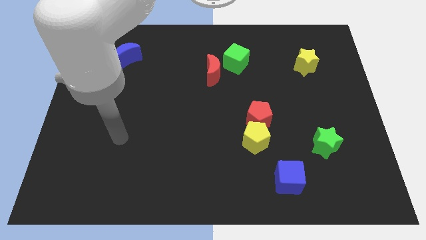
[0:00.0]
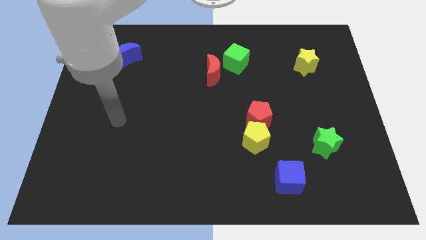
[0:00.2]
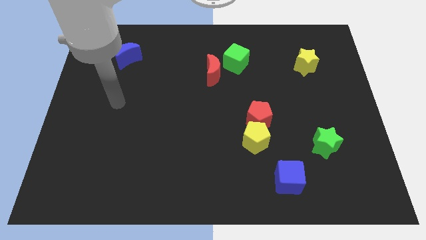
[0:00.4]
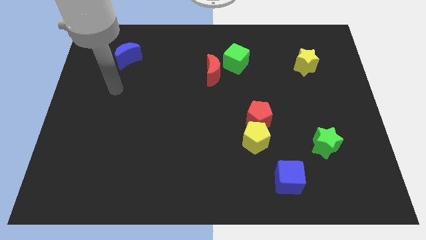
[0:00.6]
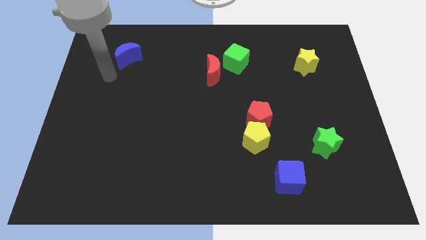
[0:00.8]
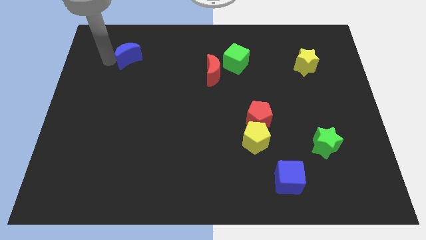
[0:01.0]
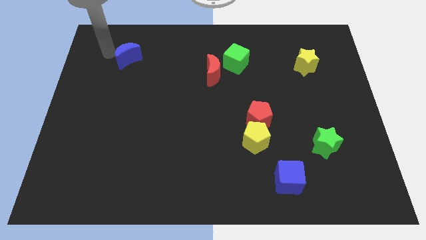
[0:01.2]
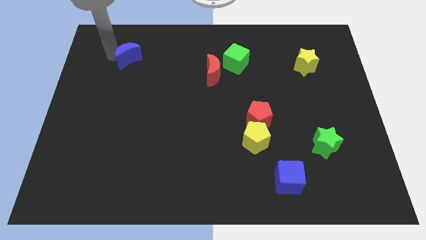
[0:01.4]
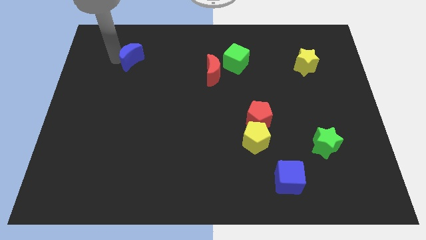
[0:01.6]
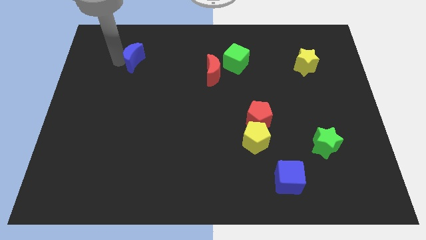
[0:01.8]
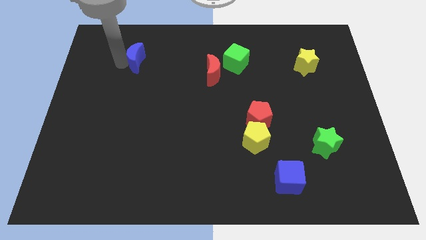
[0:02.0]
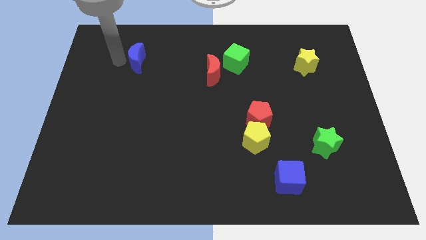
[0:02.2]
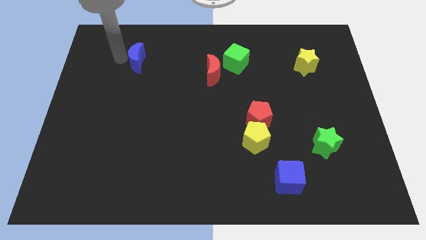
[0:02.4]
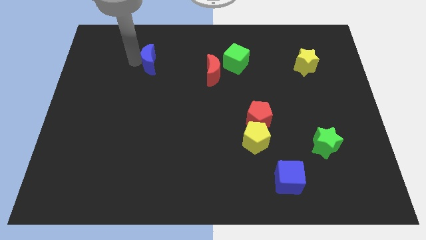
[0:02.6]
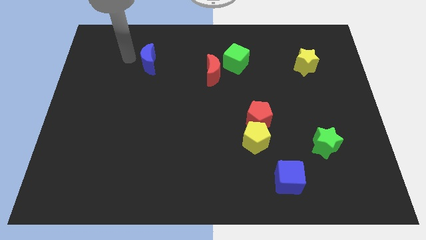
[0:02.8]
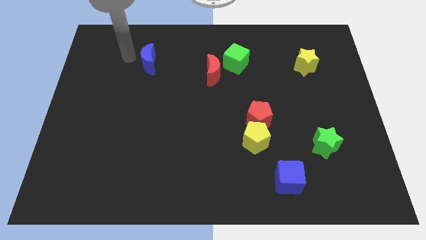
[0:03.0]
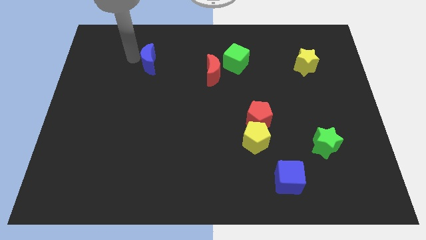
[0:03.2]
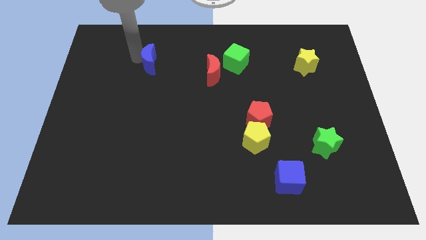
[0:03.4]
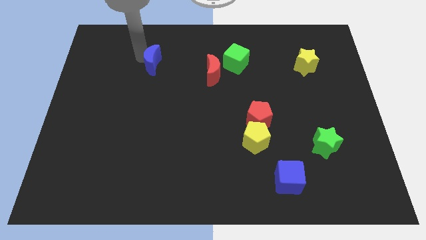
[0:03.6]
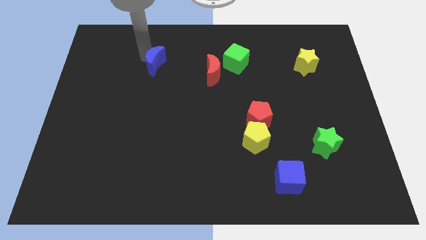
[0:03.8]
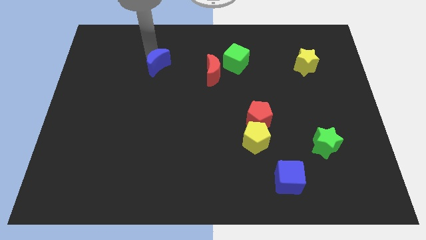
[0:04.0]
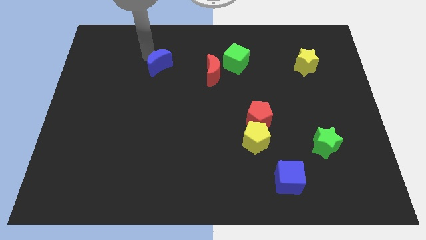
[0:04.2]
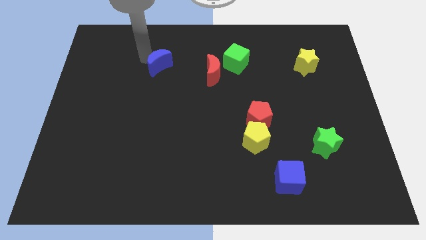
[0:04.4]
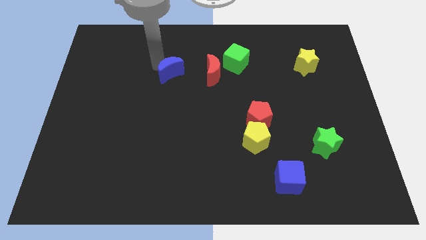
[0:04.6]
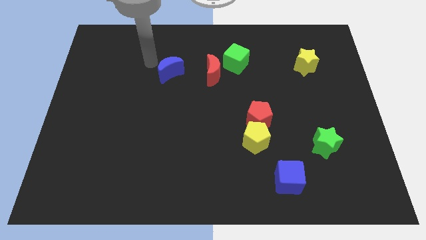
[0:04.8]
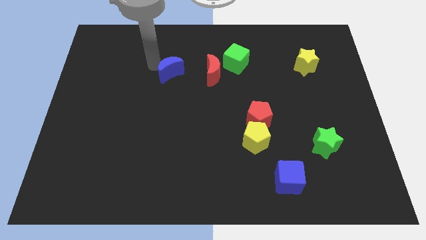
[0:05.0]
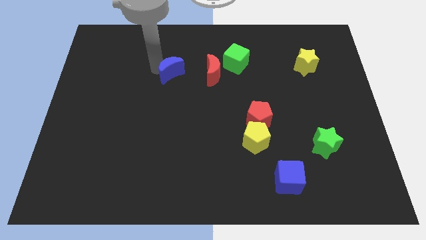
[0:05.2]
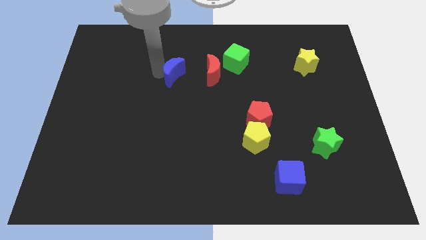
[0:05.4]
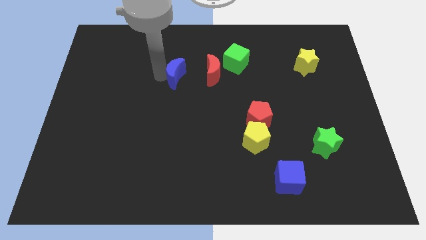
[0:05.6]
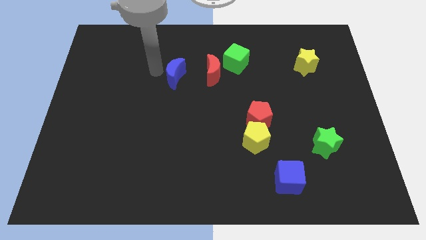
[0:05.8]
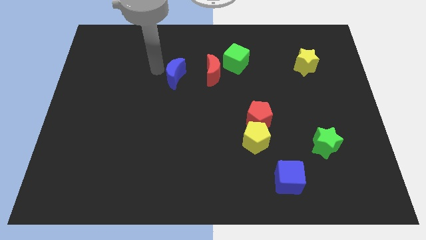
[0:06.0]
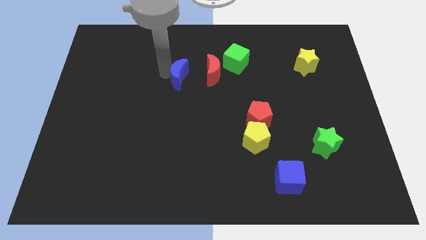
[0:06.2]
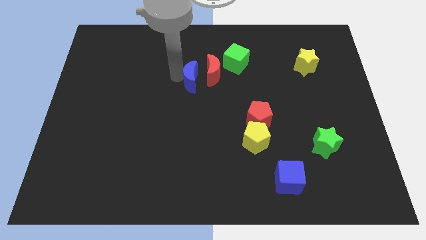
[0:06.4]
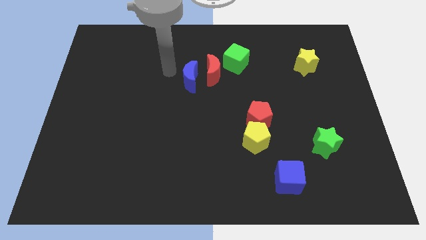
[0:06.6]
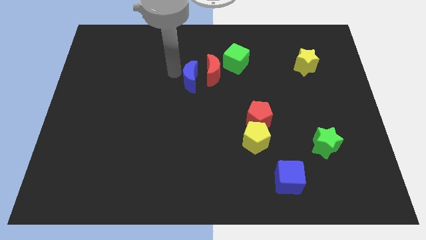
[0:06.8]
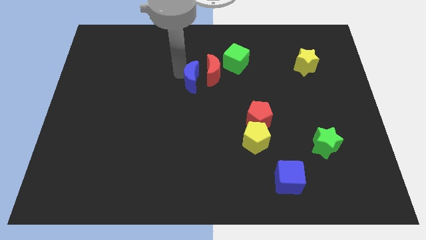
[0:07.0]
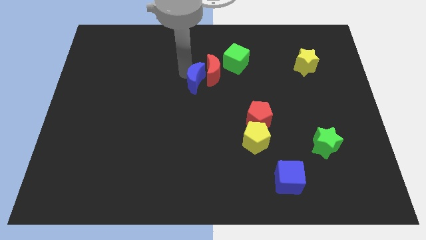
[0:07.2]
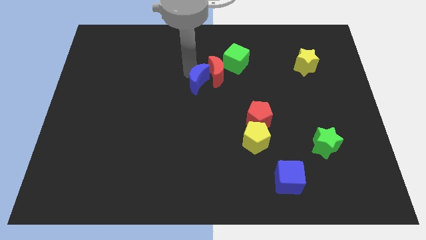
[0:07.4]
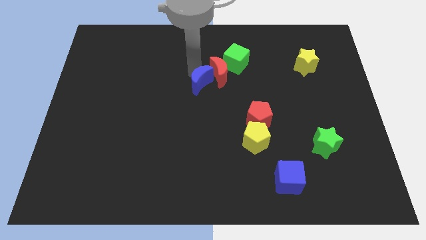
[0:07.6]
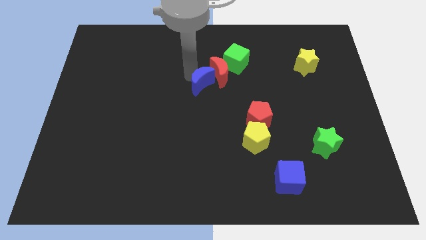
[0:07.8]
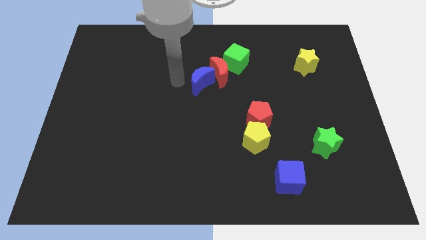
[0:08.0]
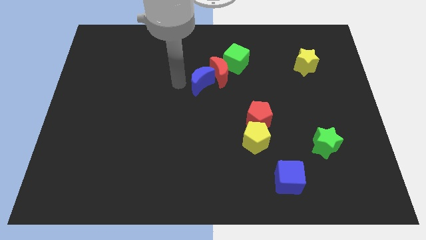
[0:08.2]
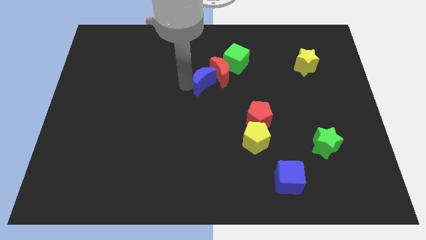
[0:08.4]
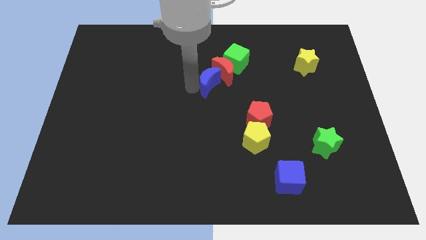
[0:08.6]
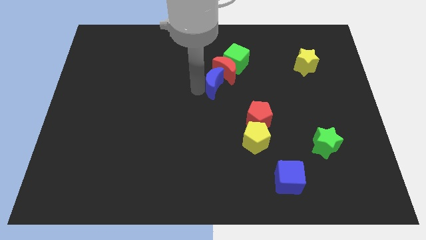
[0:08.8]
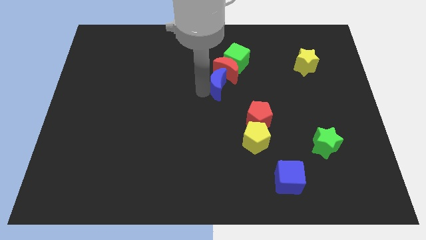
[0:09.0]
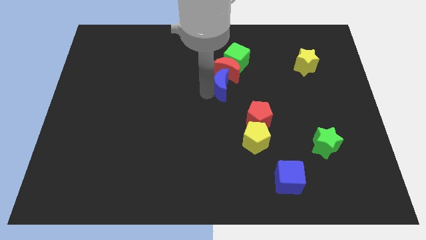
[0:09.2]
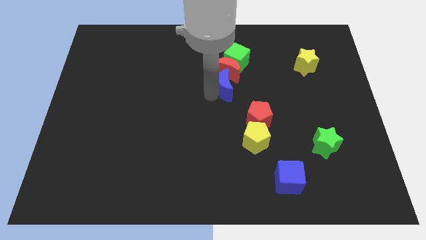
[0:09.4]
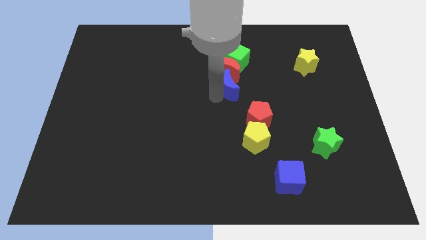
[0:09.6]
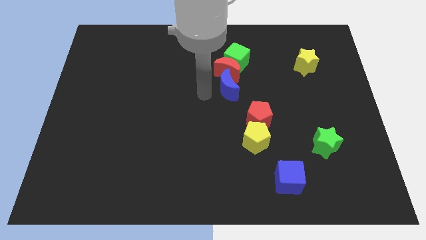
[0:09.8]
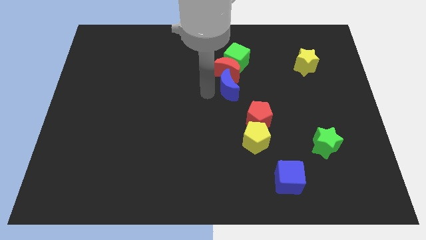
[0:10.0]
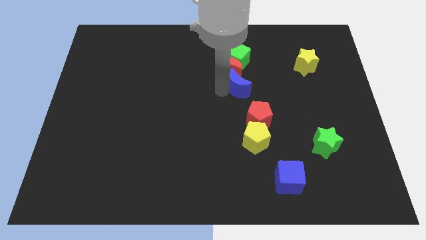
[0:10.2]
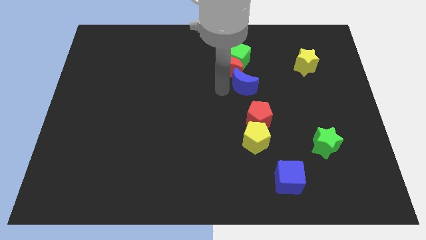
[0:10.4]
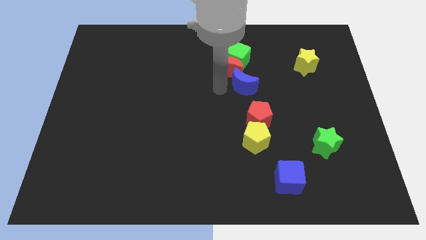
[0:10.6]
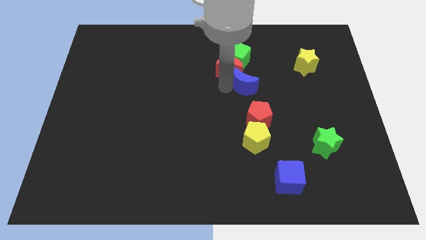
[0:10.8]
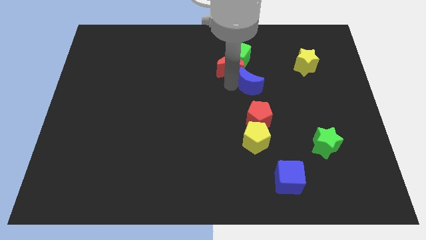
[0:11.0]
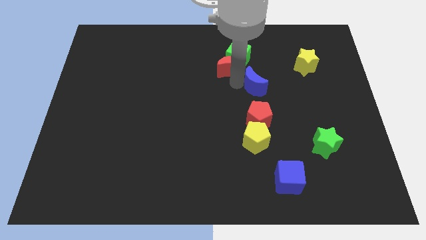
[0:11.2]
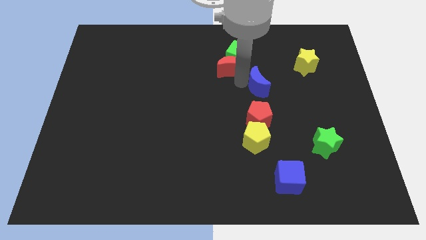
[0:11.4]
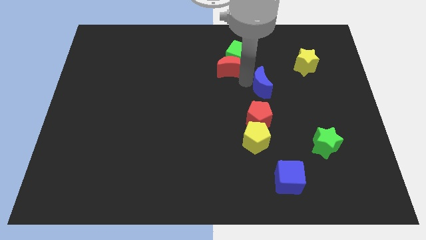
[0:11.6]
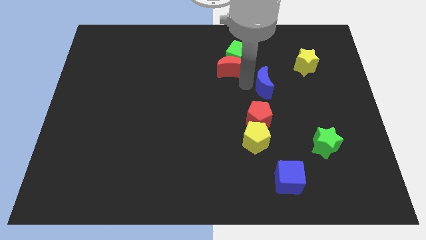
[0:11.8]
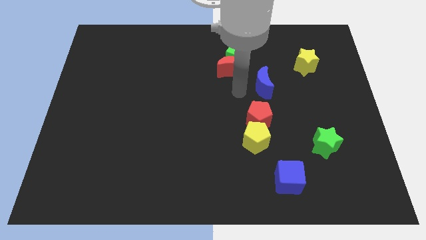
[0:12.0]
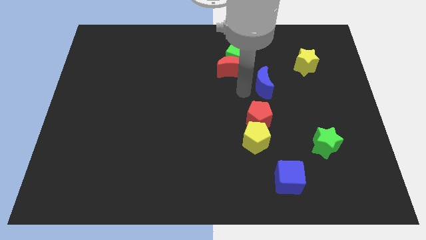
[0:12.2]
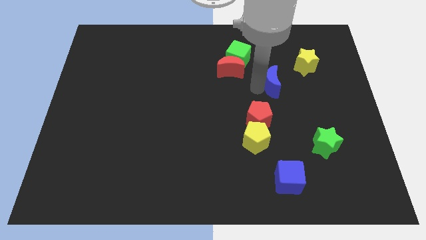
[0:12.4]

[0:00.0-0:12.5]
slide the blue moon to the bottom left side of the yellow star

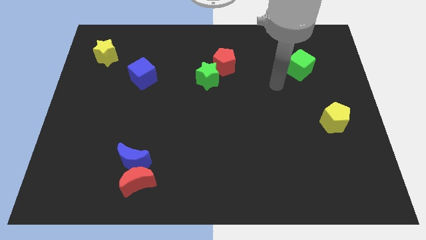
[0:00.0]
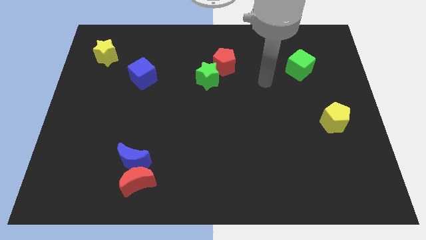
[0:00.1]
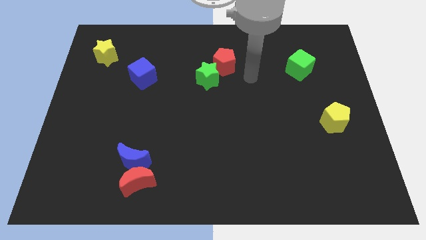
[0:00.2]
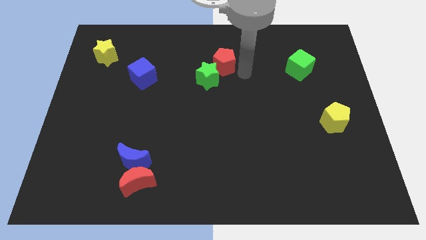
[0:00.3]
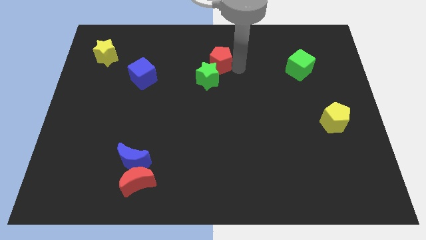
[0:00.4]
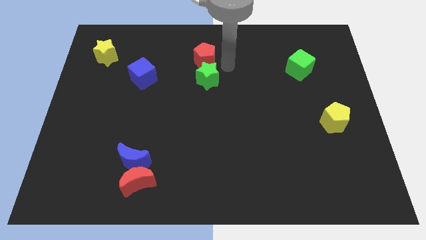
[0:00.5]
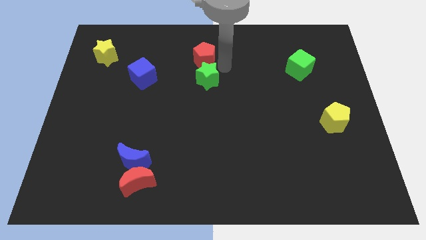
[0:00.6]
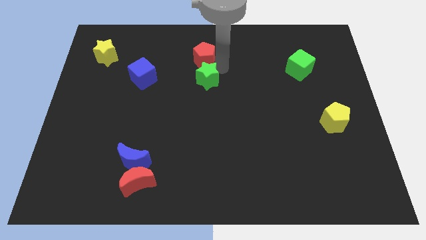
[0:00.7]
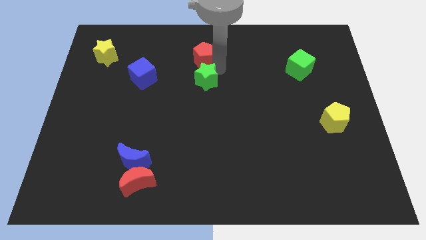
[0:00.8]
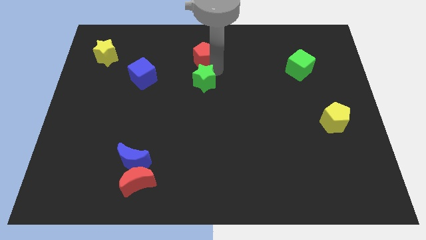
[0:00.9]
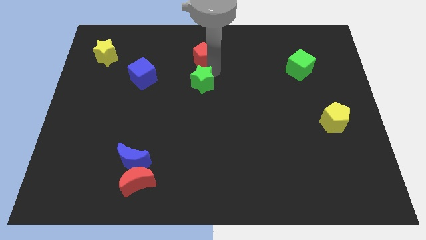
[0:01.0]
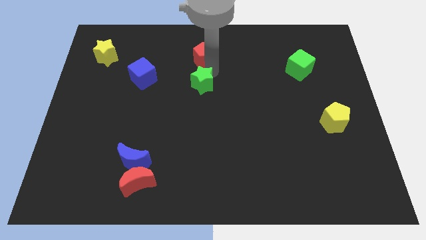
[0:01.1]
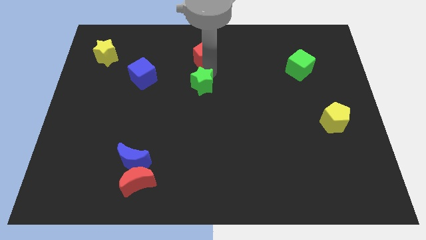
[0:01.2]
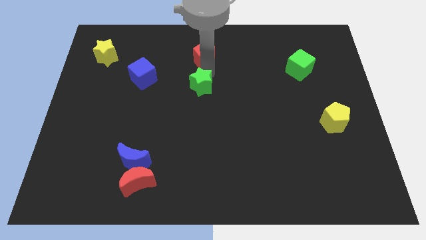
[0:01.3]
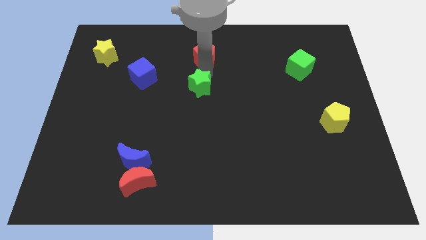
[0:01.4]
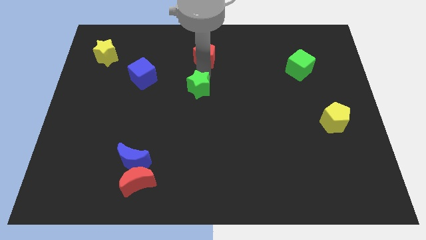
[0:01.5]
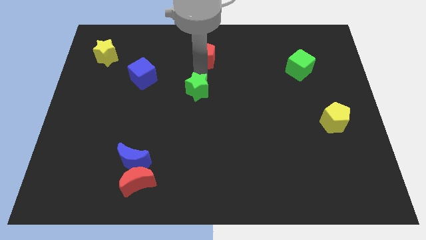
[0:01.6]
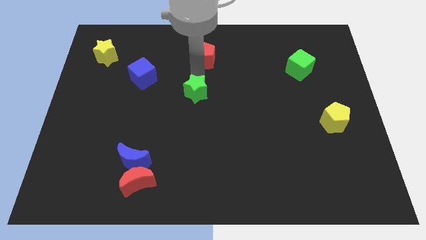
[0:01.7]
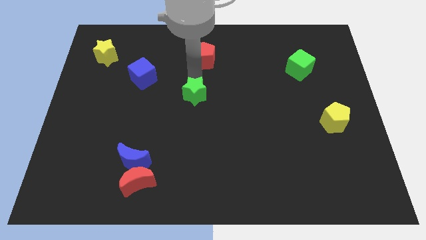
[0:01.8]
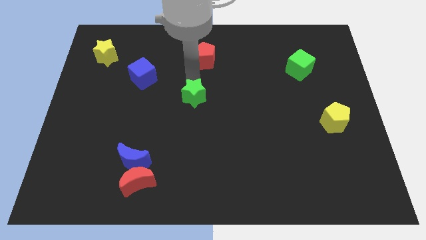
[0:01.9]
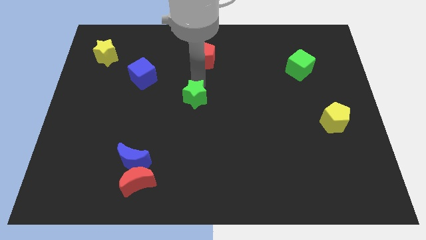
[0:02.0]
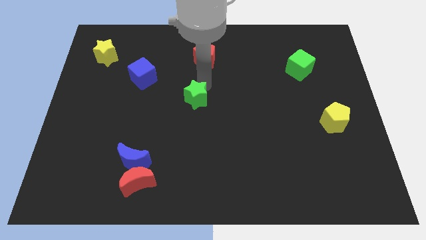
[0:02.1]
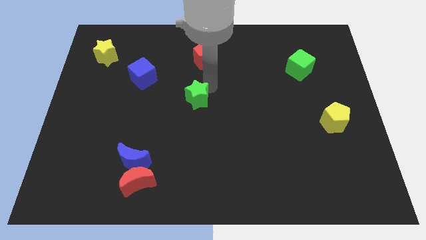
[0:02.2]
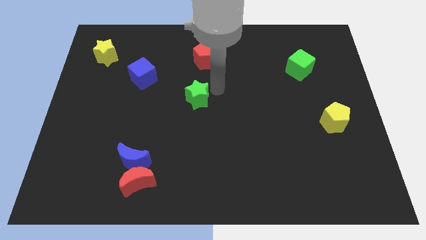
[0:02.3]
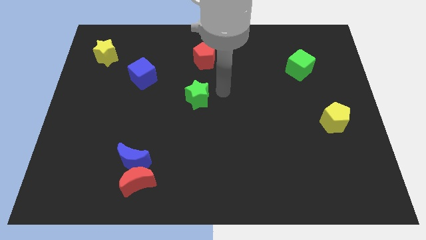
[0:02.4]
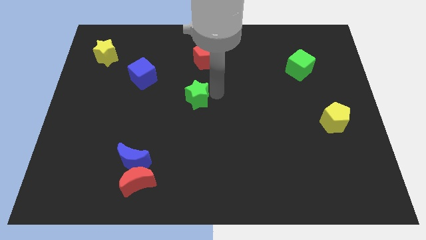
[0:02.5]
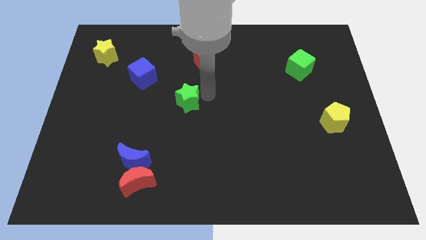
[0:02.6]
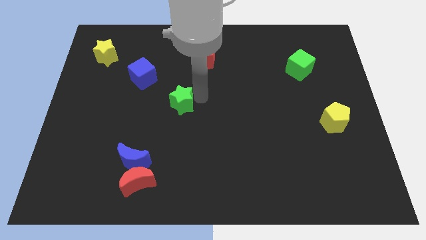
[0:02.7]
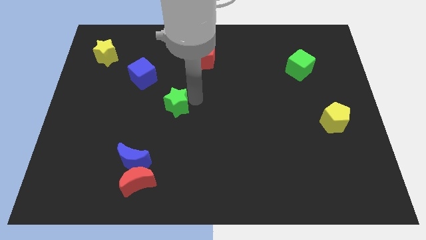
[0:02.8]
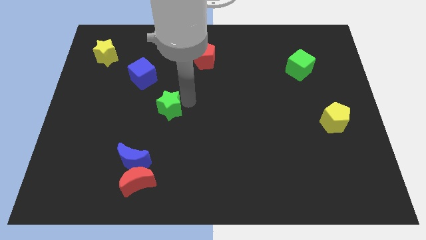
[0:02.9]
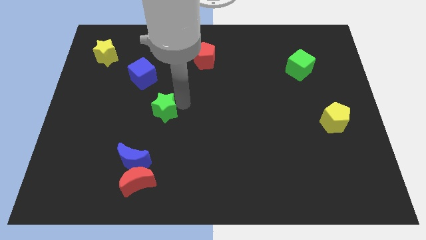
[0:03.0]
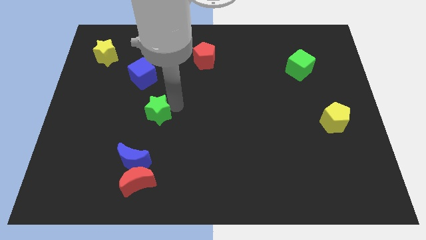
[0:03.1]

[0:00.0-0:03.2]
slide the green star to the top side of the blue moon
